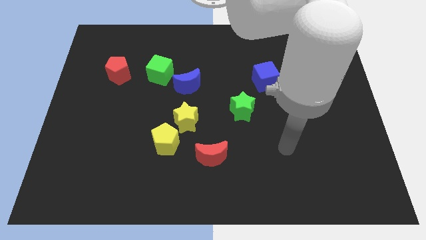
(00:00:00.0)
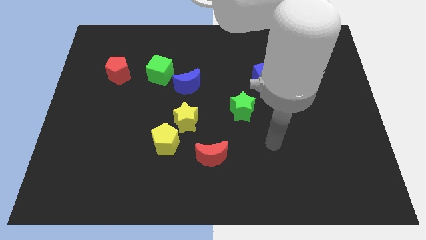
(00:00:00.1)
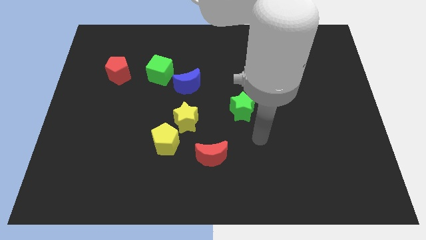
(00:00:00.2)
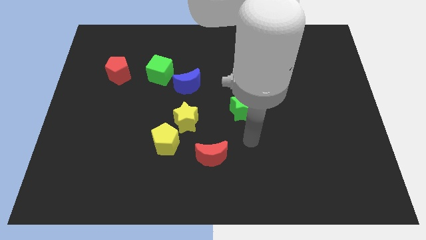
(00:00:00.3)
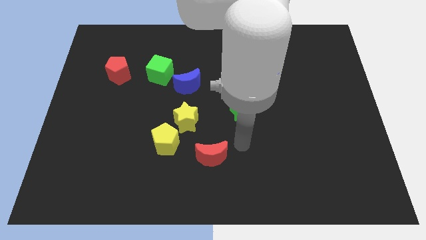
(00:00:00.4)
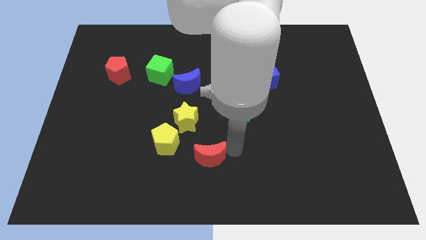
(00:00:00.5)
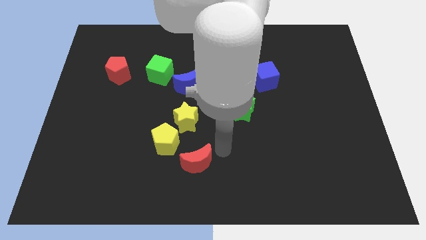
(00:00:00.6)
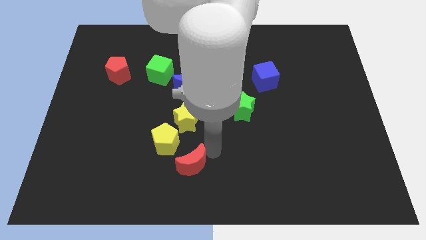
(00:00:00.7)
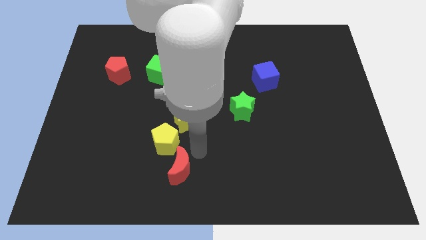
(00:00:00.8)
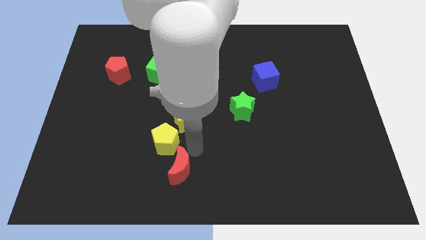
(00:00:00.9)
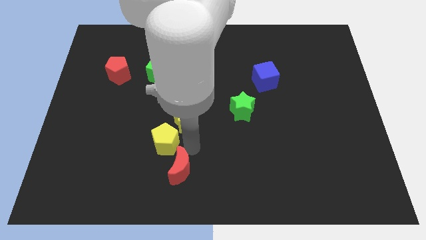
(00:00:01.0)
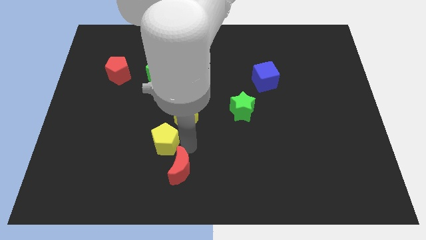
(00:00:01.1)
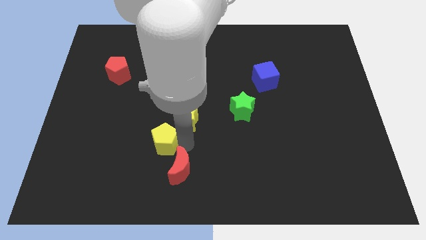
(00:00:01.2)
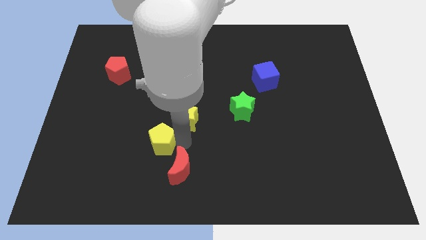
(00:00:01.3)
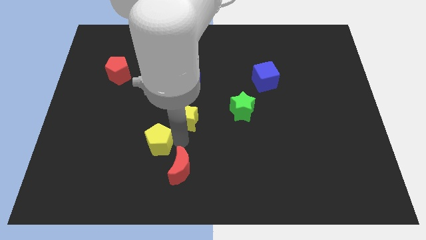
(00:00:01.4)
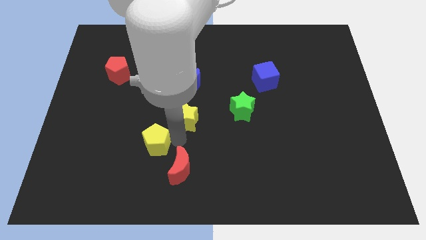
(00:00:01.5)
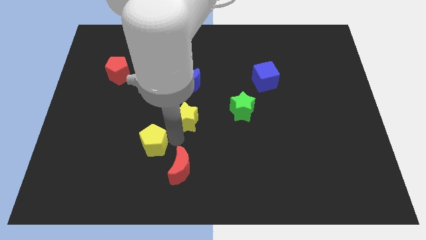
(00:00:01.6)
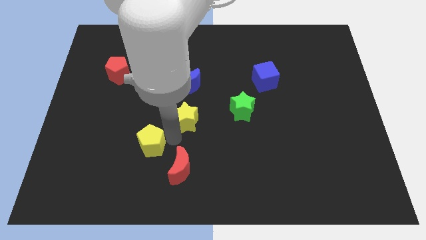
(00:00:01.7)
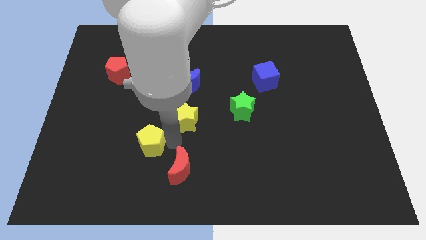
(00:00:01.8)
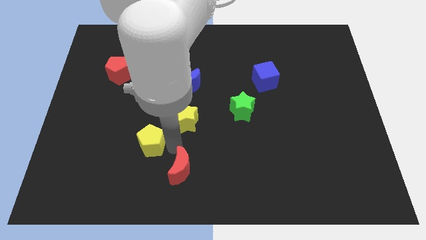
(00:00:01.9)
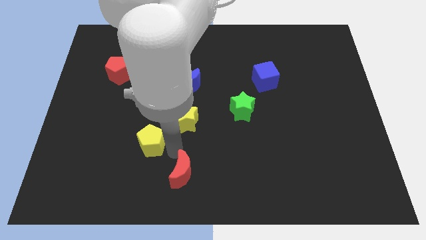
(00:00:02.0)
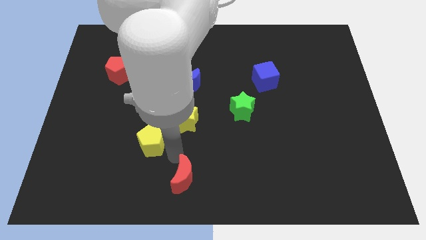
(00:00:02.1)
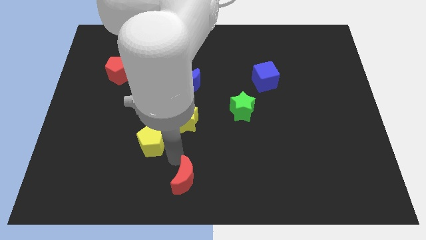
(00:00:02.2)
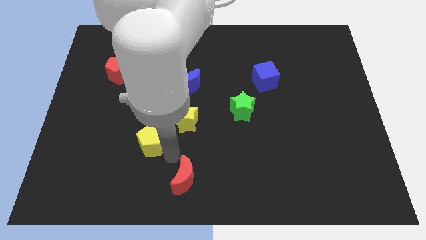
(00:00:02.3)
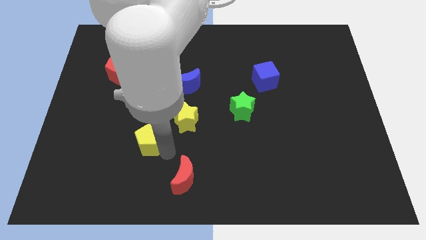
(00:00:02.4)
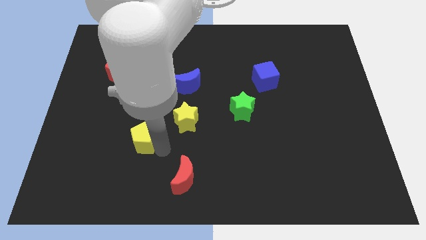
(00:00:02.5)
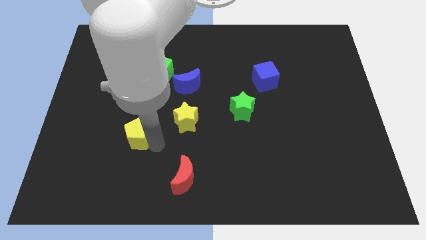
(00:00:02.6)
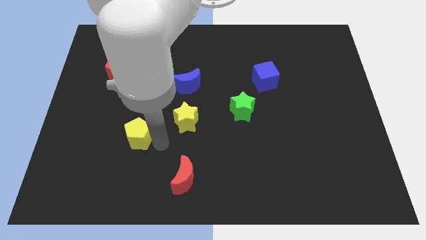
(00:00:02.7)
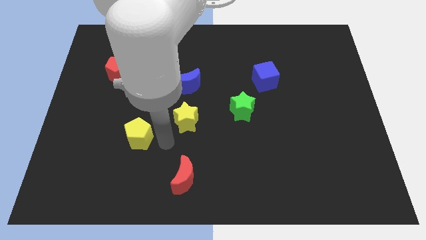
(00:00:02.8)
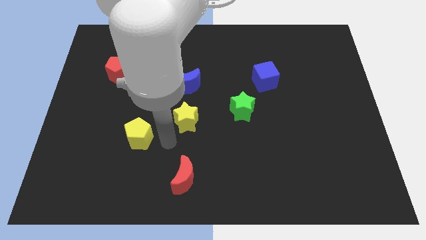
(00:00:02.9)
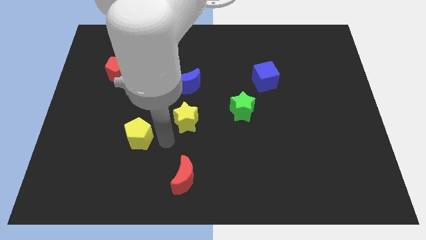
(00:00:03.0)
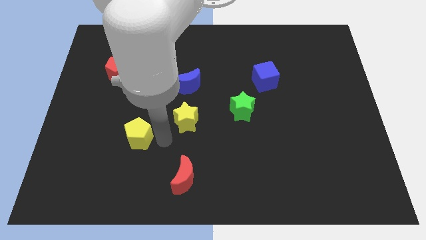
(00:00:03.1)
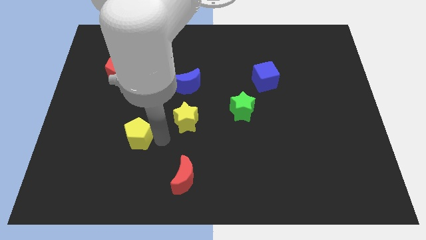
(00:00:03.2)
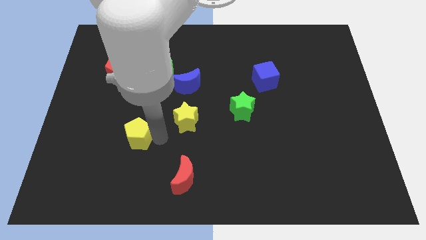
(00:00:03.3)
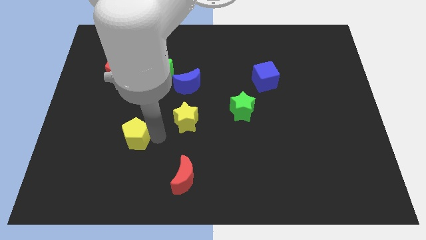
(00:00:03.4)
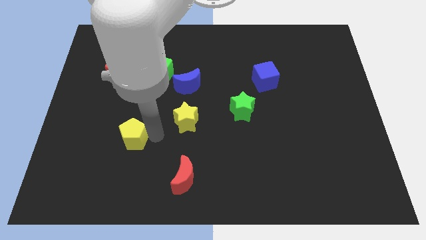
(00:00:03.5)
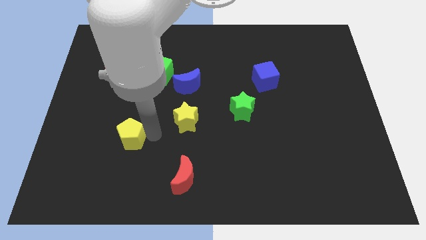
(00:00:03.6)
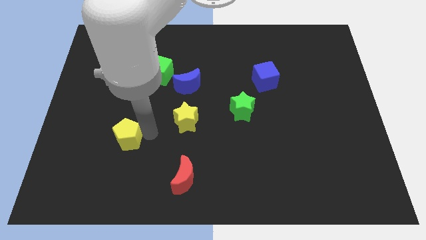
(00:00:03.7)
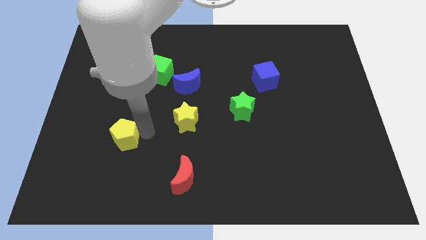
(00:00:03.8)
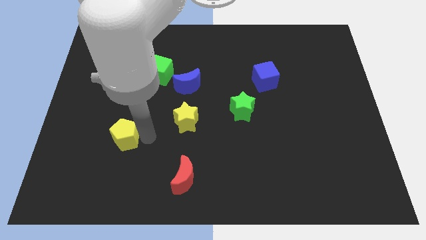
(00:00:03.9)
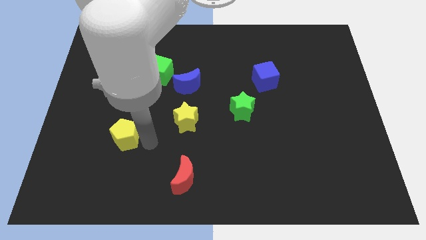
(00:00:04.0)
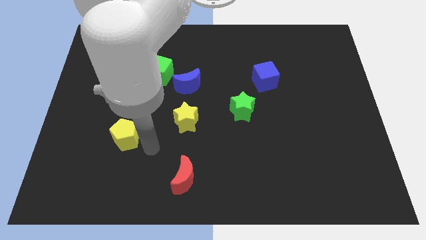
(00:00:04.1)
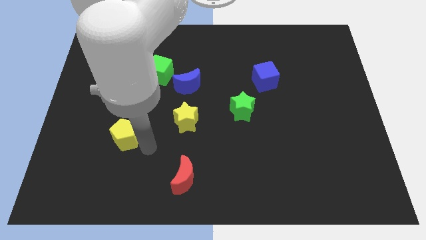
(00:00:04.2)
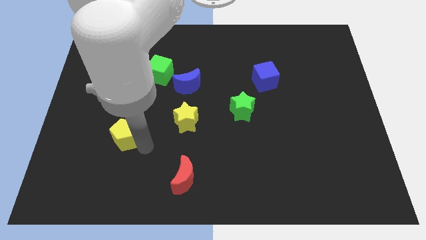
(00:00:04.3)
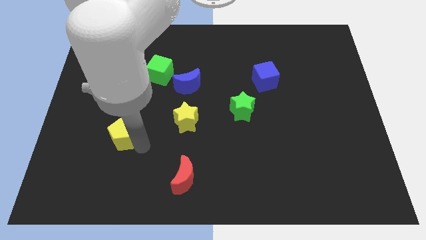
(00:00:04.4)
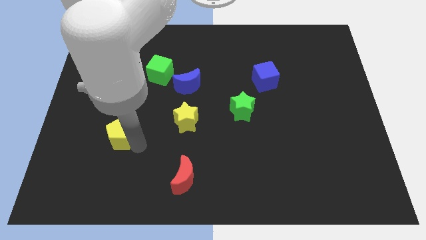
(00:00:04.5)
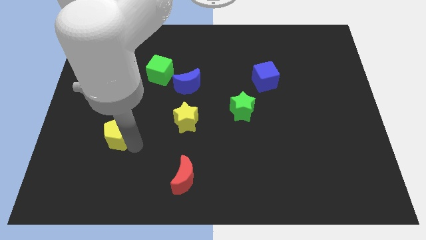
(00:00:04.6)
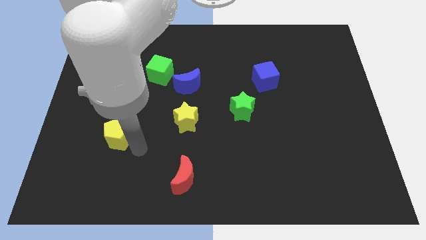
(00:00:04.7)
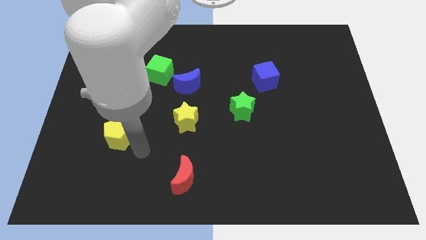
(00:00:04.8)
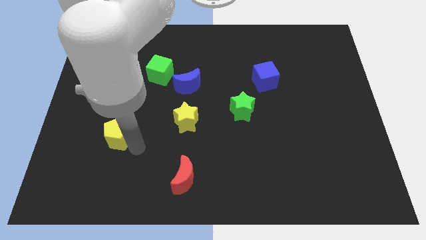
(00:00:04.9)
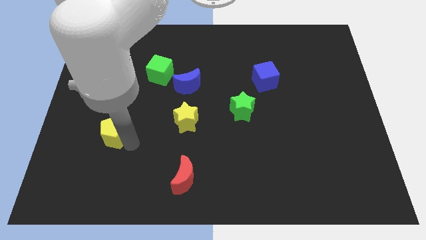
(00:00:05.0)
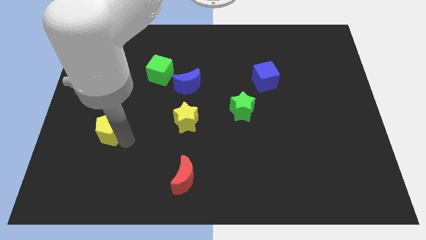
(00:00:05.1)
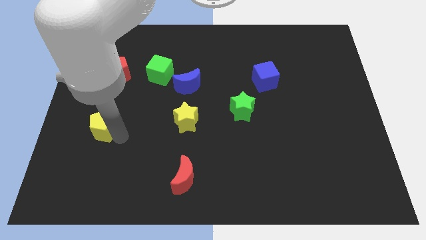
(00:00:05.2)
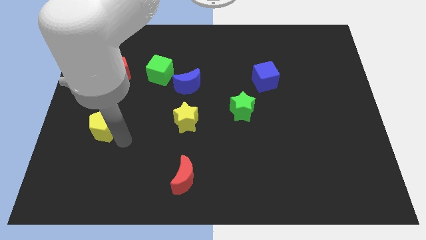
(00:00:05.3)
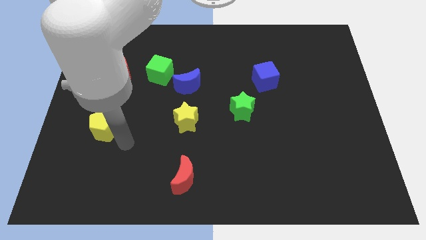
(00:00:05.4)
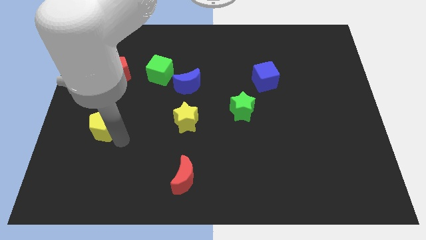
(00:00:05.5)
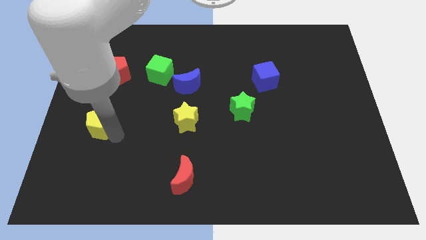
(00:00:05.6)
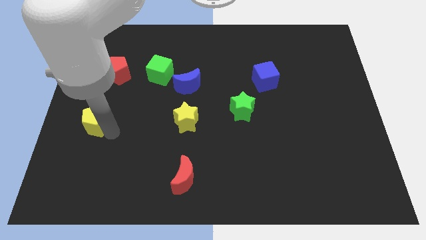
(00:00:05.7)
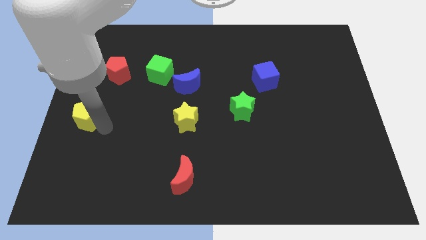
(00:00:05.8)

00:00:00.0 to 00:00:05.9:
push the yellow pentagon to the center left
